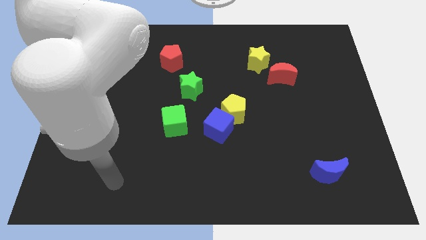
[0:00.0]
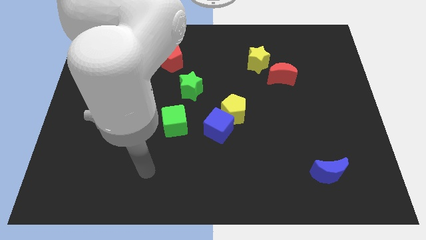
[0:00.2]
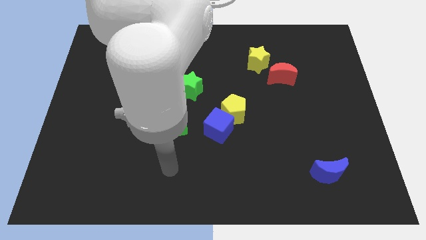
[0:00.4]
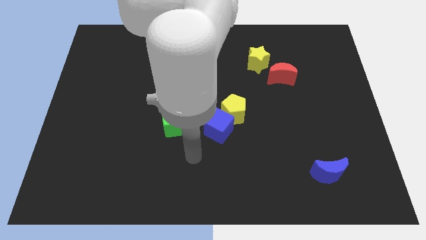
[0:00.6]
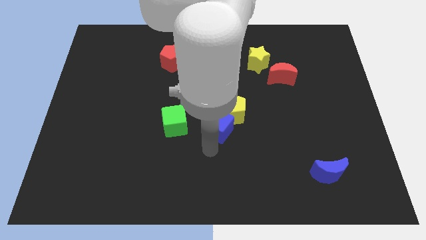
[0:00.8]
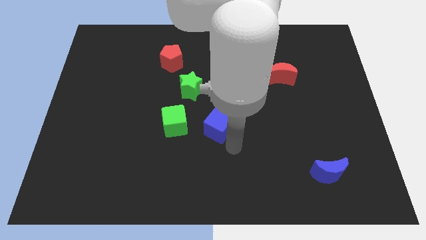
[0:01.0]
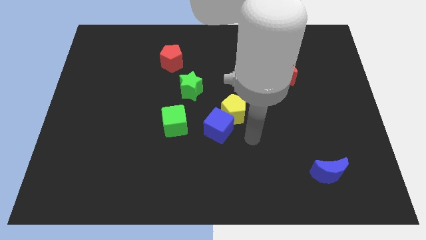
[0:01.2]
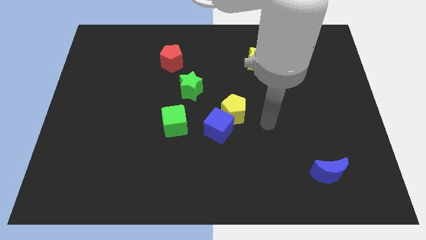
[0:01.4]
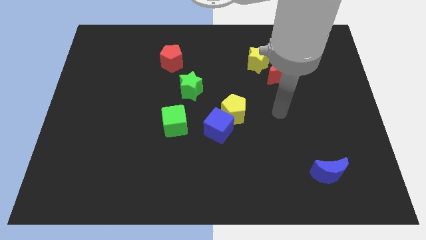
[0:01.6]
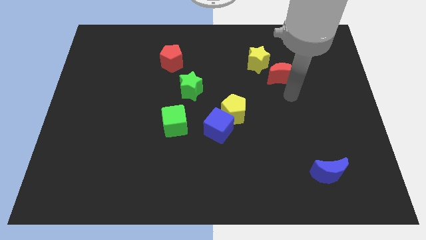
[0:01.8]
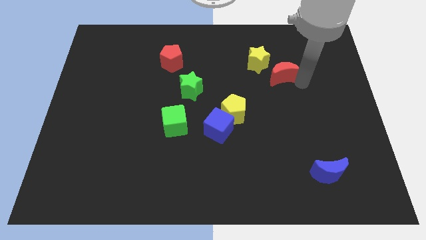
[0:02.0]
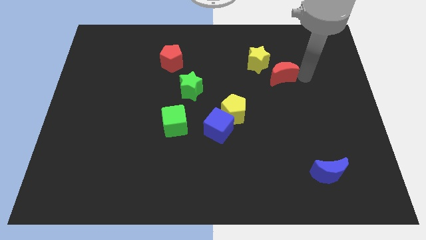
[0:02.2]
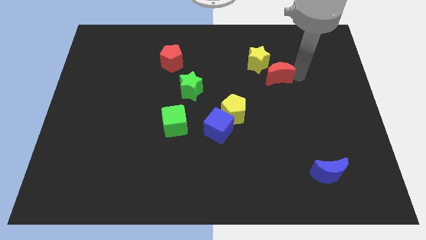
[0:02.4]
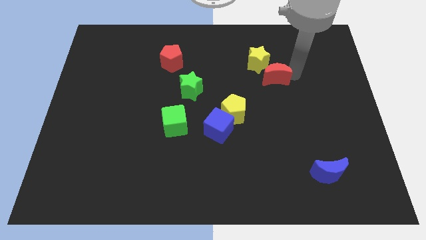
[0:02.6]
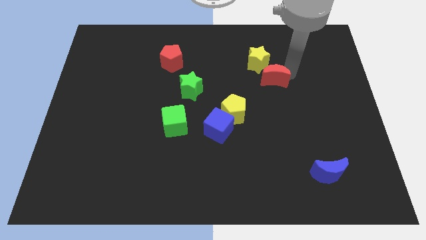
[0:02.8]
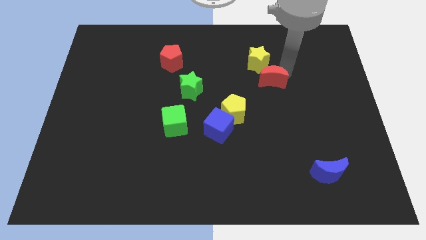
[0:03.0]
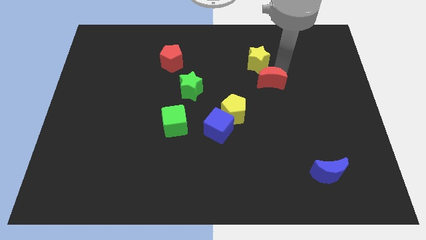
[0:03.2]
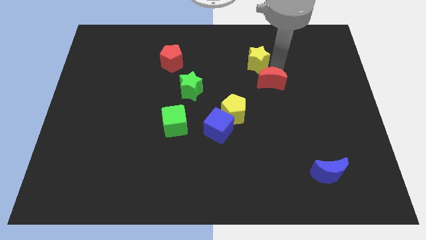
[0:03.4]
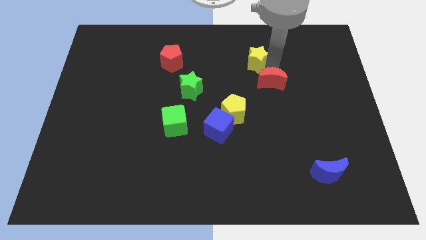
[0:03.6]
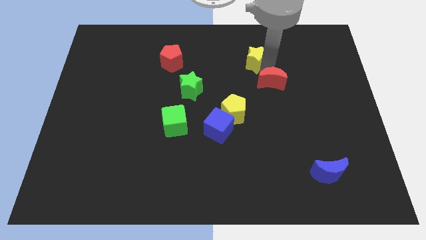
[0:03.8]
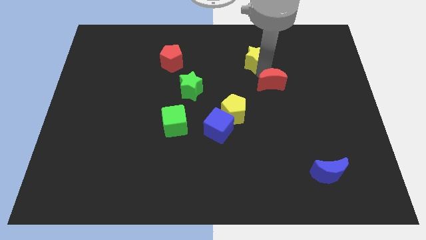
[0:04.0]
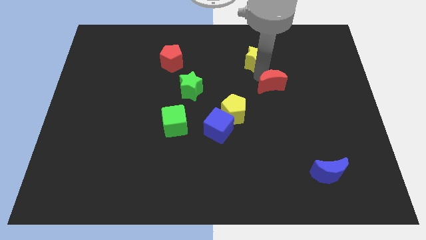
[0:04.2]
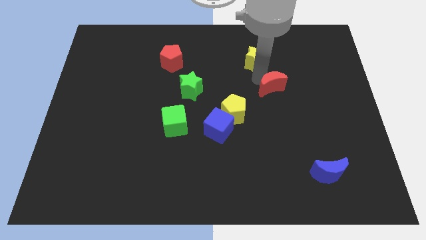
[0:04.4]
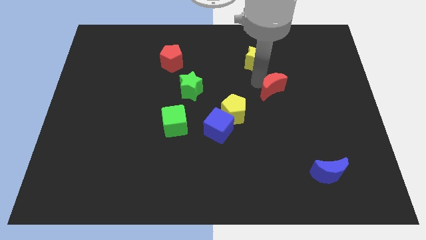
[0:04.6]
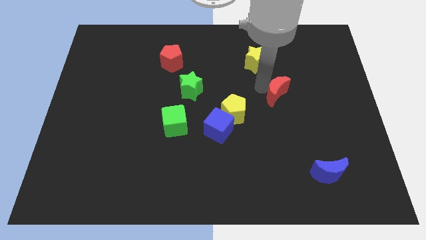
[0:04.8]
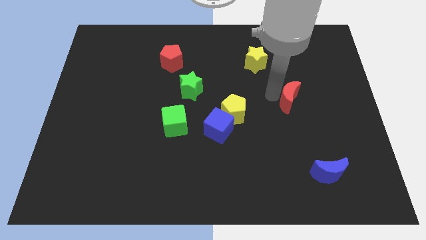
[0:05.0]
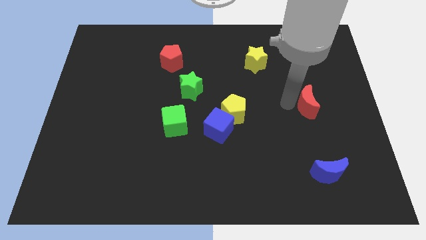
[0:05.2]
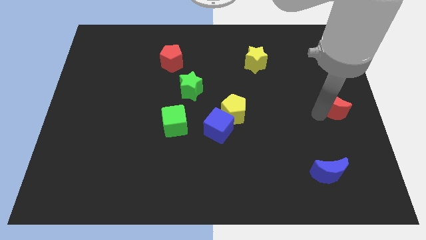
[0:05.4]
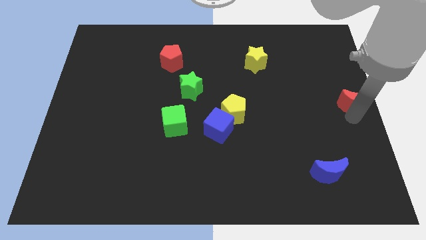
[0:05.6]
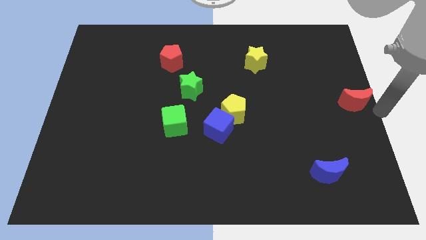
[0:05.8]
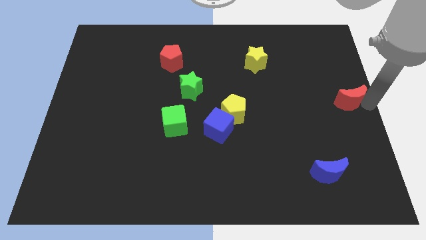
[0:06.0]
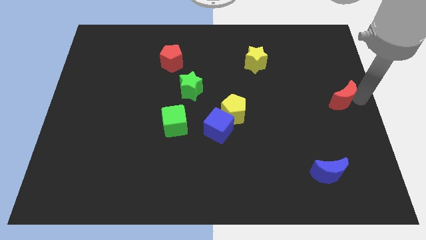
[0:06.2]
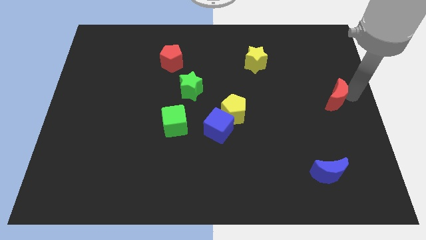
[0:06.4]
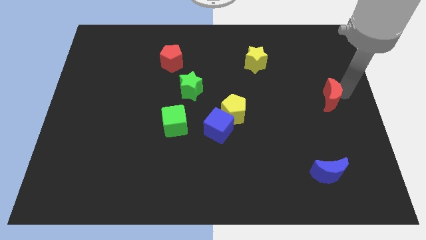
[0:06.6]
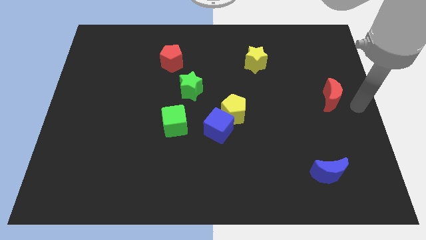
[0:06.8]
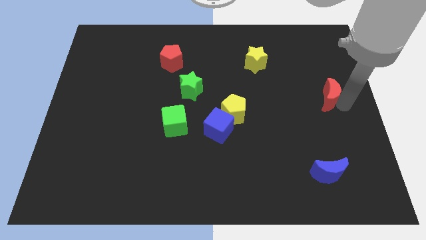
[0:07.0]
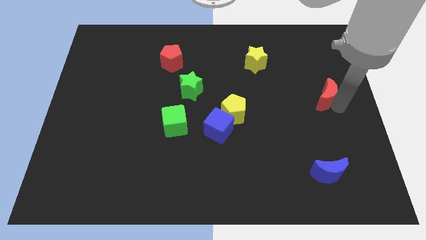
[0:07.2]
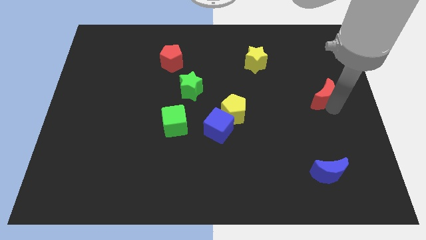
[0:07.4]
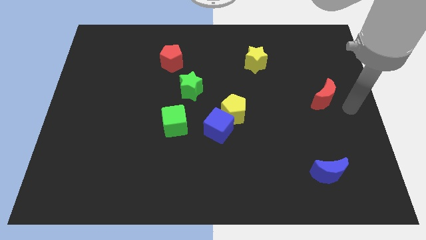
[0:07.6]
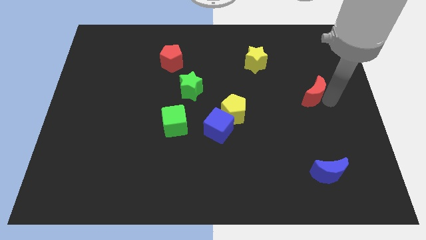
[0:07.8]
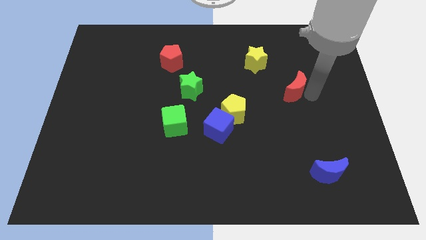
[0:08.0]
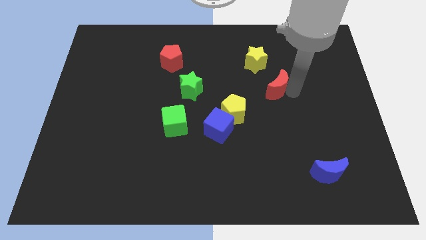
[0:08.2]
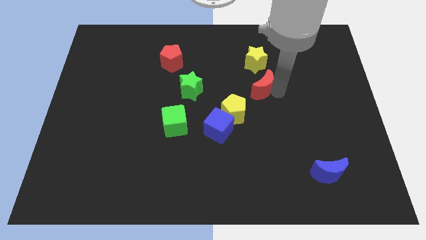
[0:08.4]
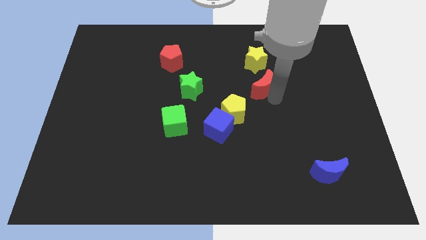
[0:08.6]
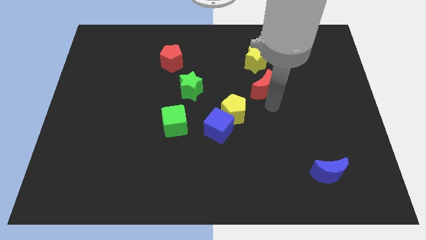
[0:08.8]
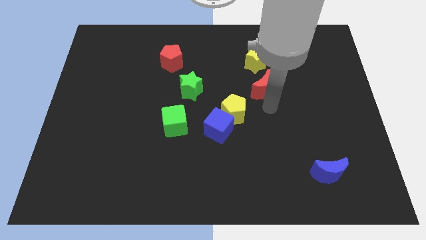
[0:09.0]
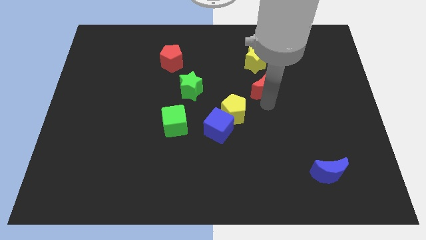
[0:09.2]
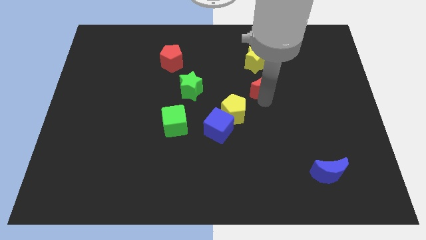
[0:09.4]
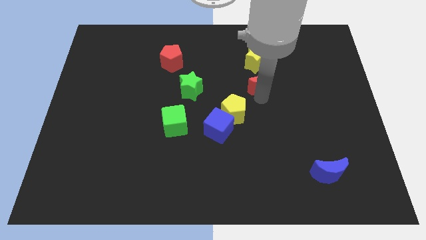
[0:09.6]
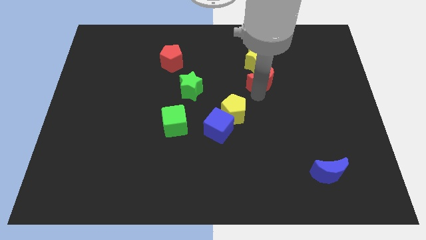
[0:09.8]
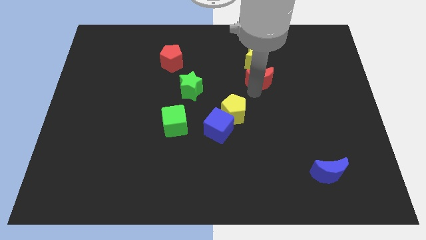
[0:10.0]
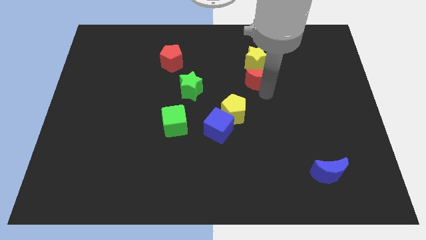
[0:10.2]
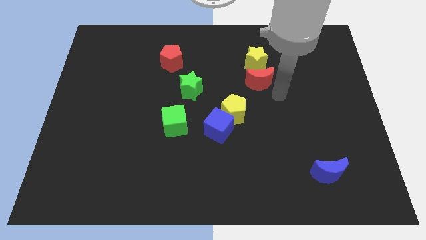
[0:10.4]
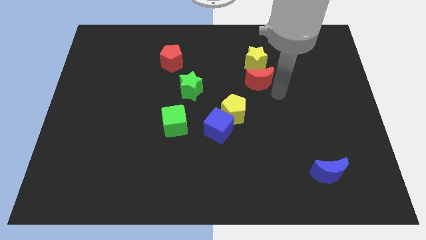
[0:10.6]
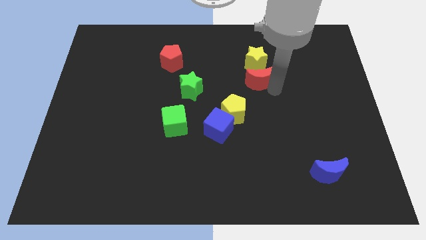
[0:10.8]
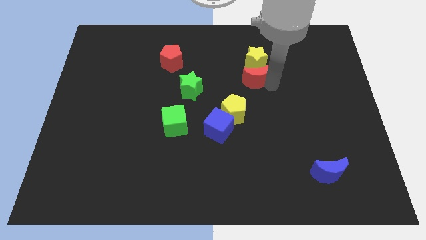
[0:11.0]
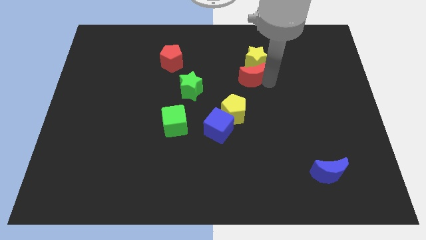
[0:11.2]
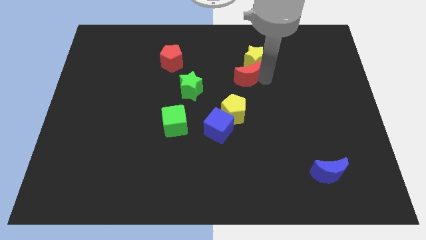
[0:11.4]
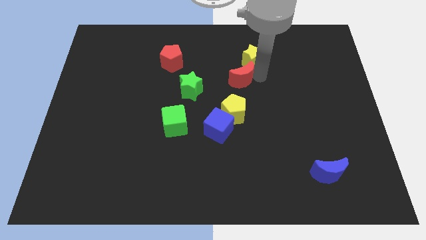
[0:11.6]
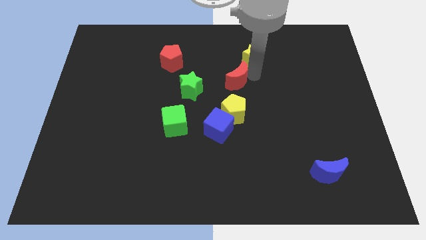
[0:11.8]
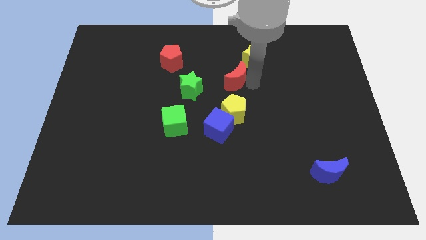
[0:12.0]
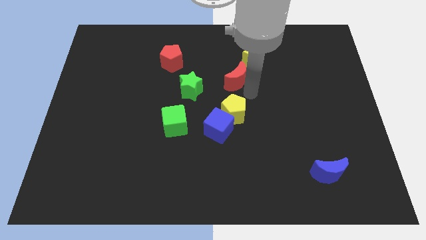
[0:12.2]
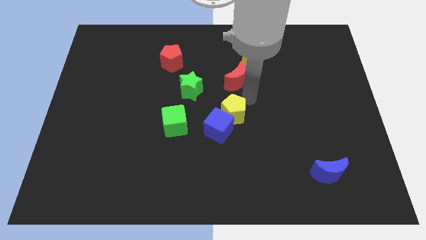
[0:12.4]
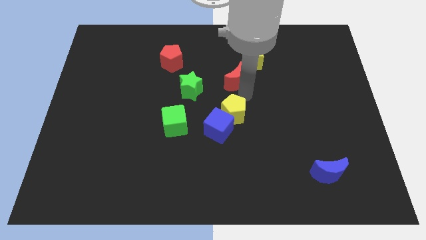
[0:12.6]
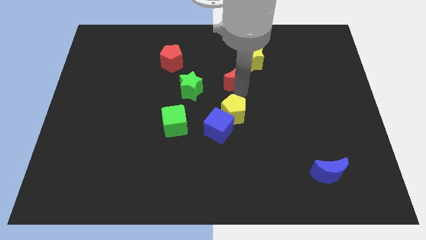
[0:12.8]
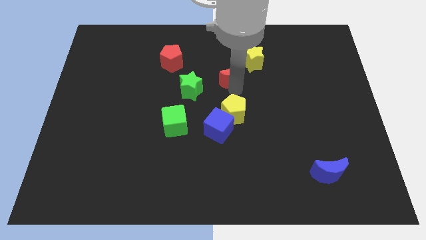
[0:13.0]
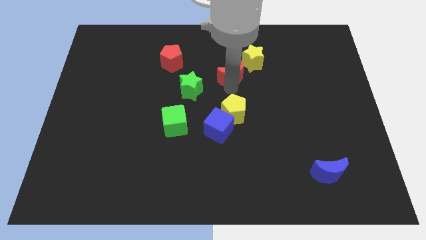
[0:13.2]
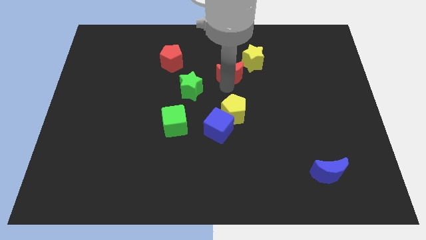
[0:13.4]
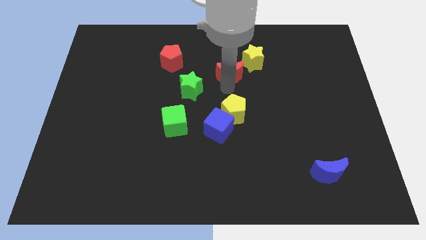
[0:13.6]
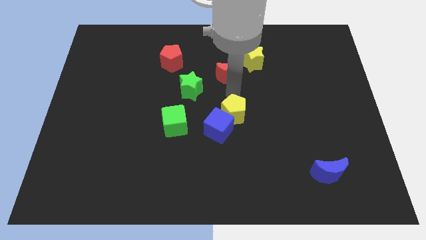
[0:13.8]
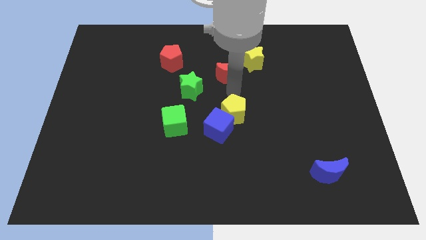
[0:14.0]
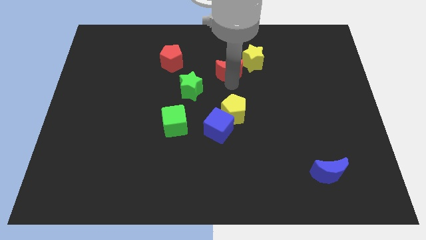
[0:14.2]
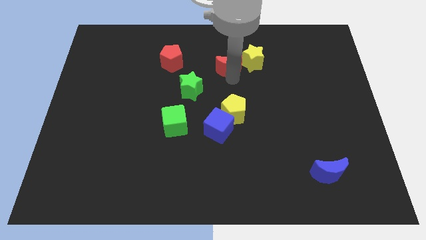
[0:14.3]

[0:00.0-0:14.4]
put the red moon to the right side of the red pentagon

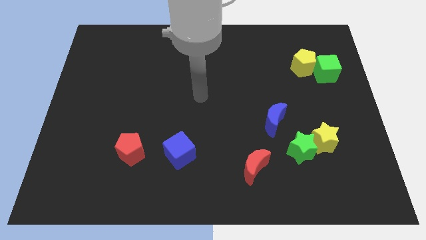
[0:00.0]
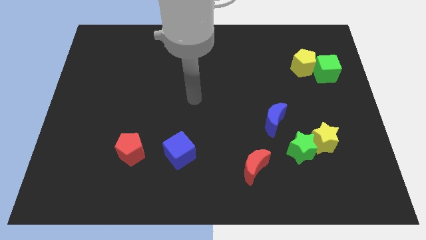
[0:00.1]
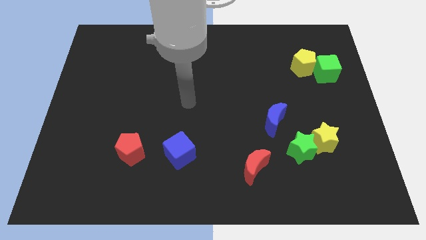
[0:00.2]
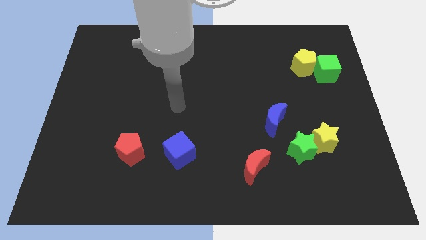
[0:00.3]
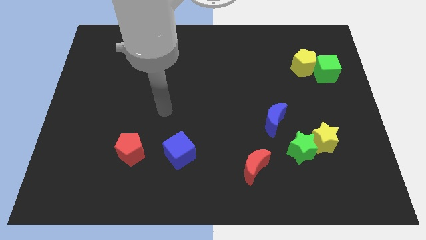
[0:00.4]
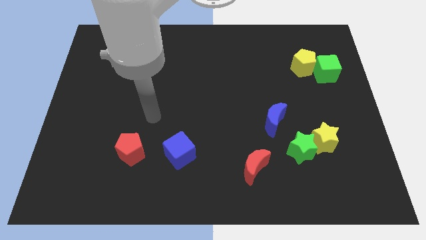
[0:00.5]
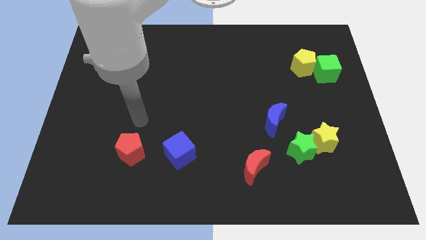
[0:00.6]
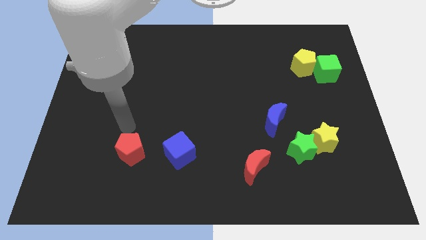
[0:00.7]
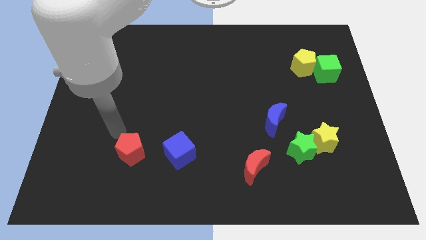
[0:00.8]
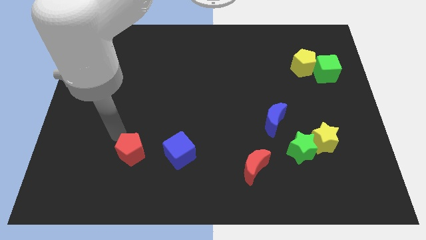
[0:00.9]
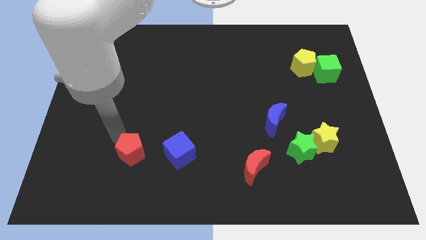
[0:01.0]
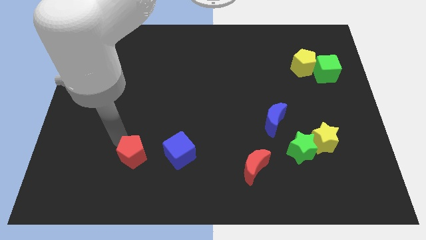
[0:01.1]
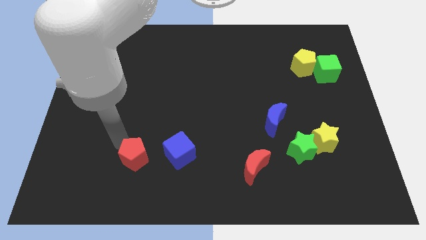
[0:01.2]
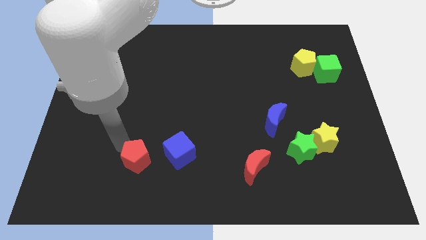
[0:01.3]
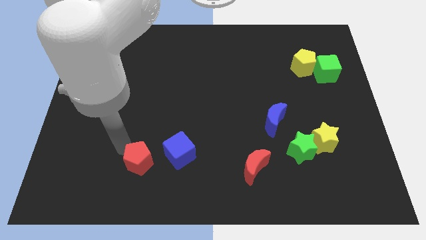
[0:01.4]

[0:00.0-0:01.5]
put the red pentagon diagonally down and to the left of the blue cube
